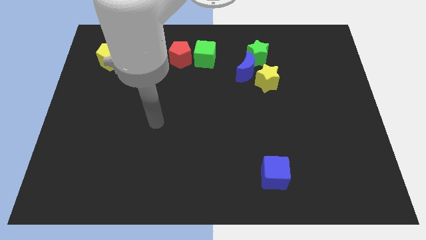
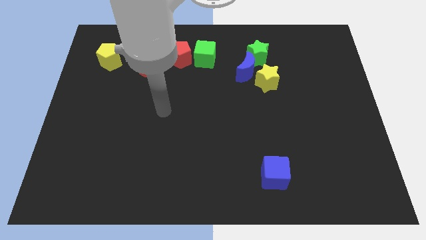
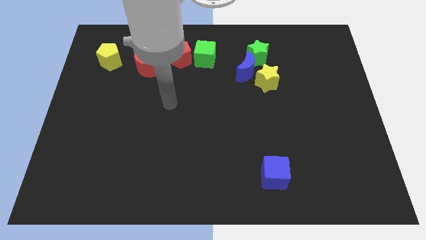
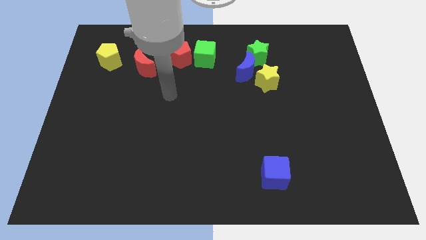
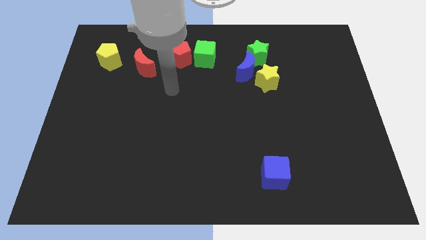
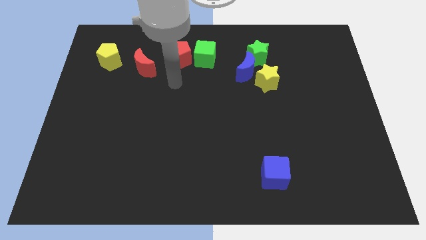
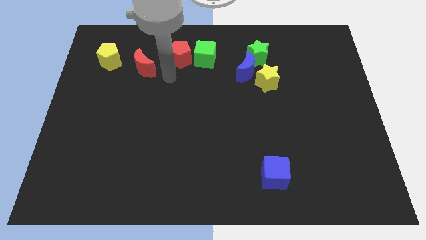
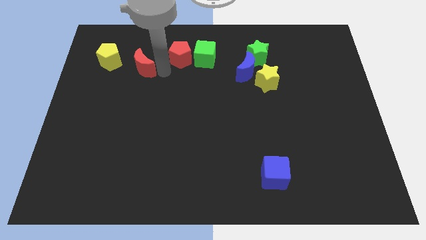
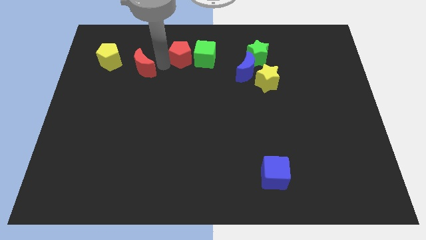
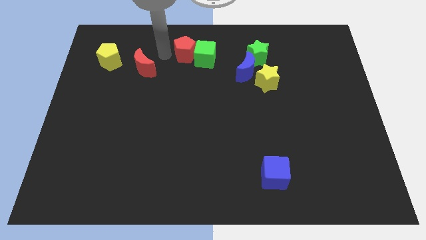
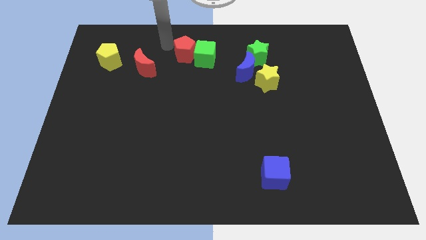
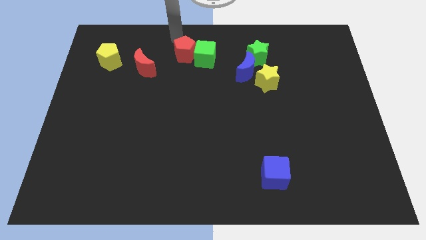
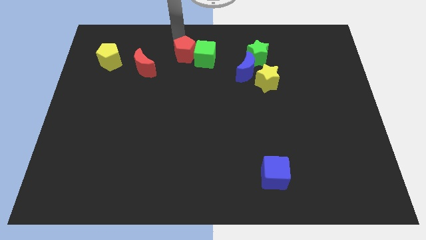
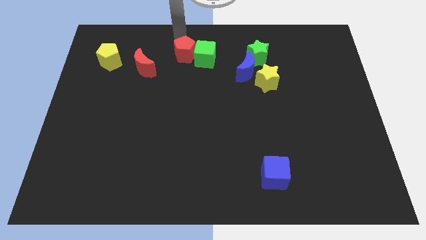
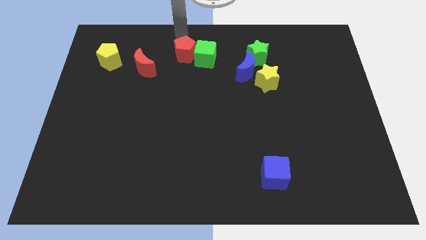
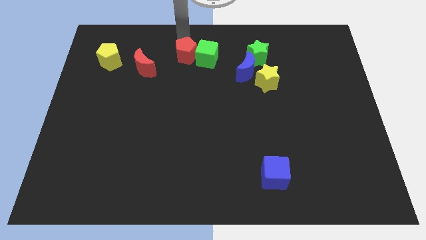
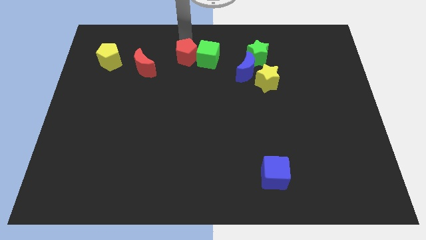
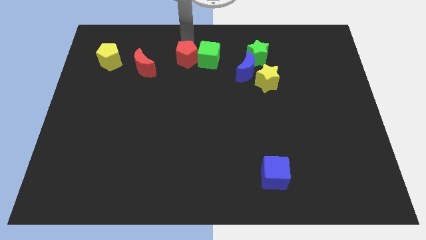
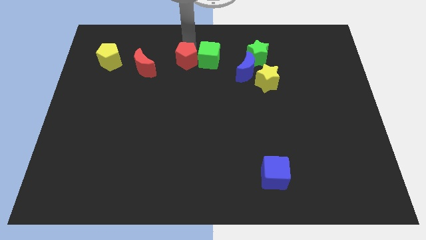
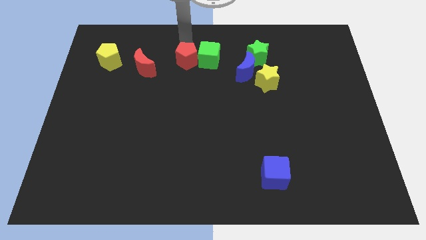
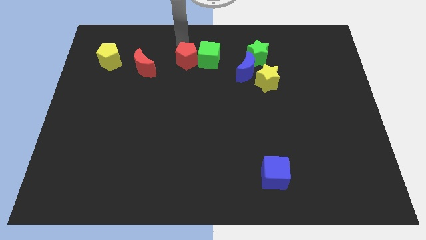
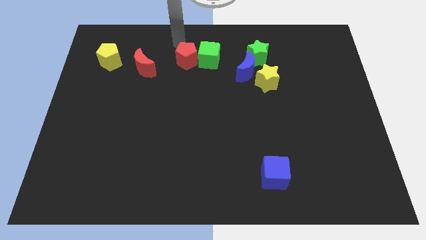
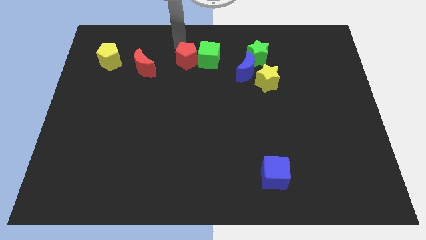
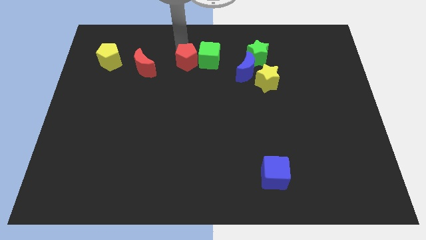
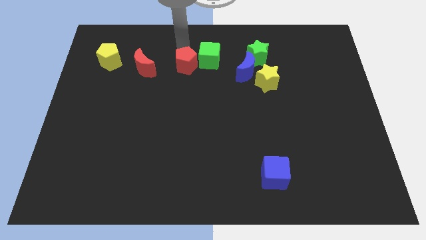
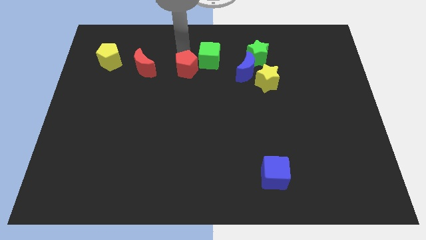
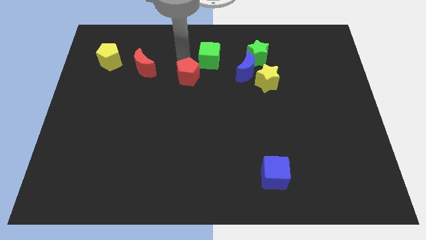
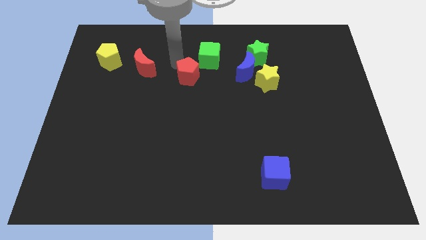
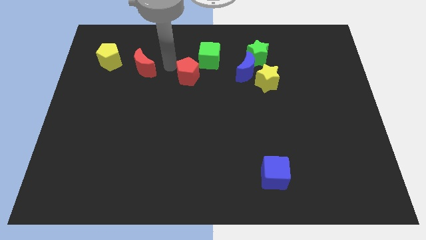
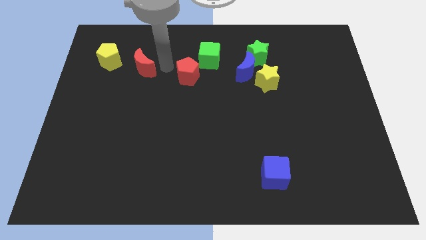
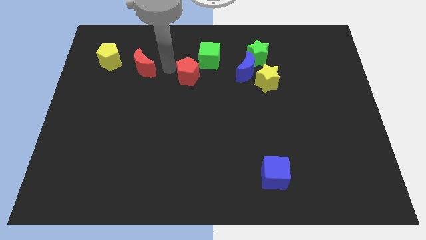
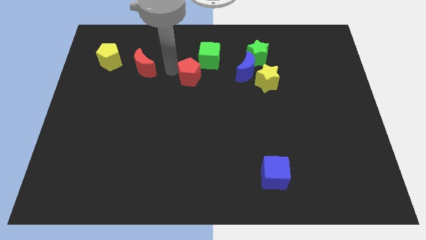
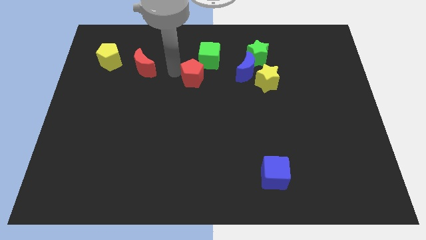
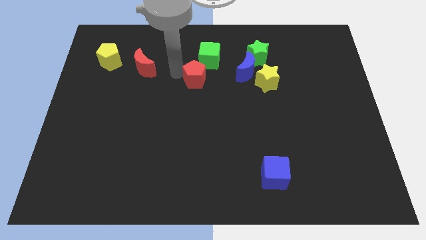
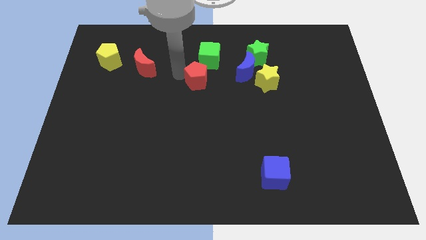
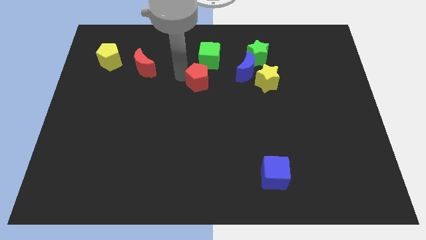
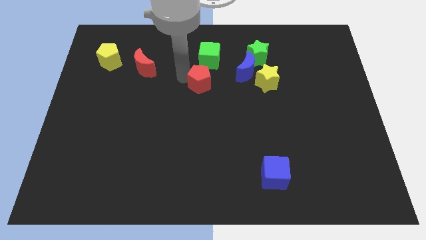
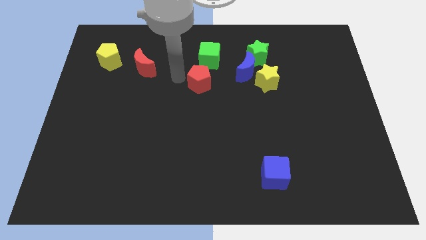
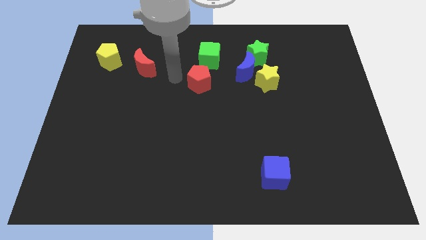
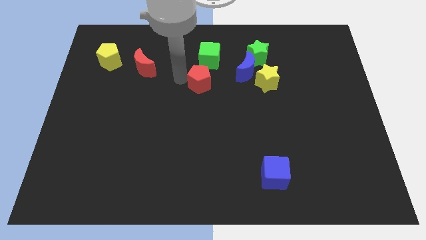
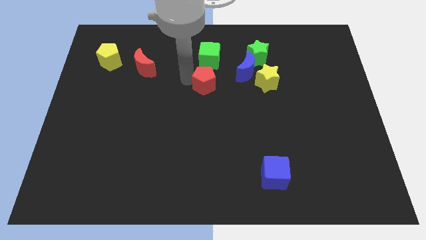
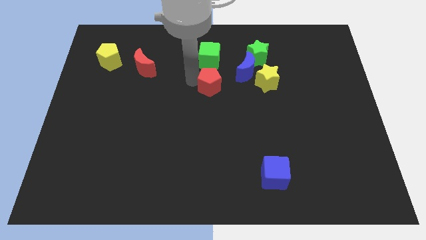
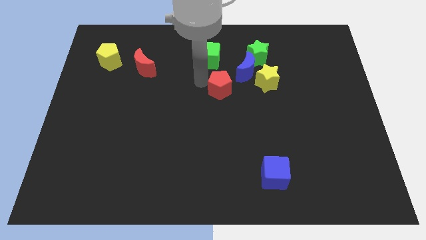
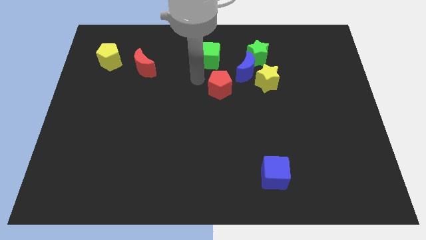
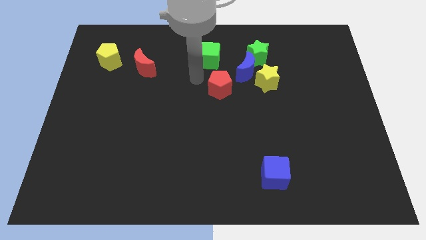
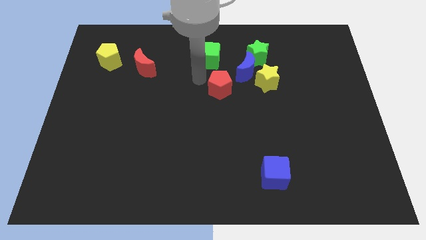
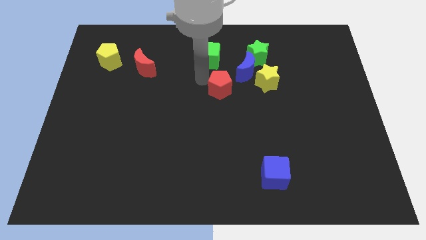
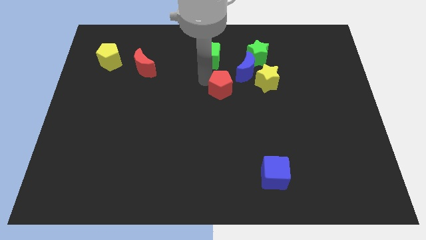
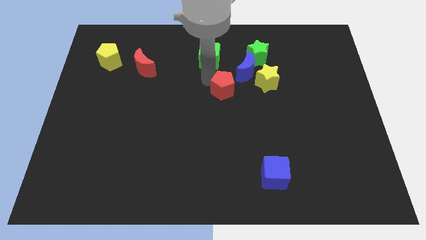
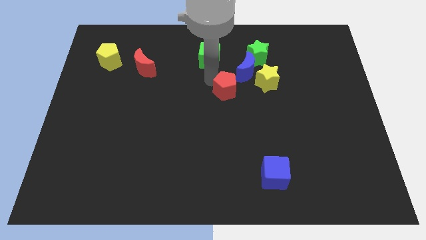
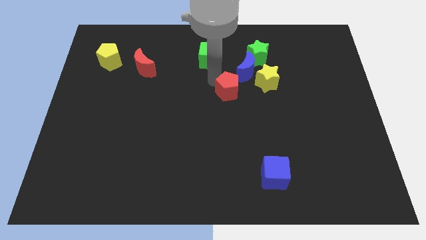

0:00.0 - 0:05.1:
put the red pentagon to the bottom left of the yellow star

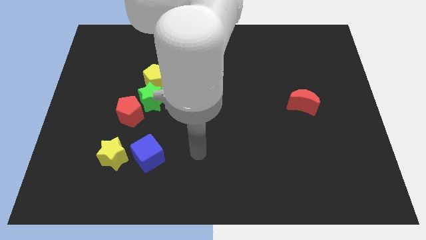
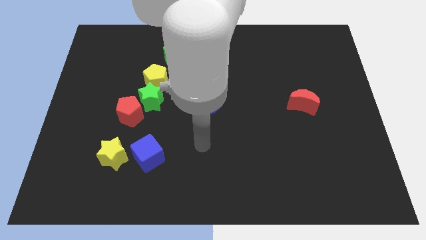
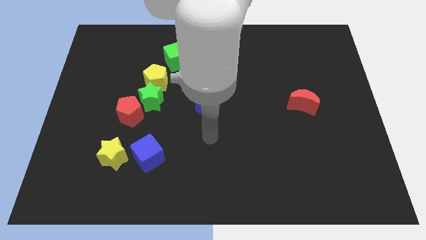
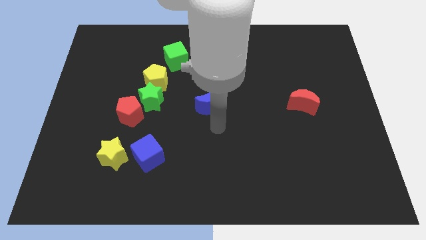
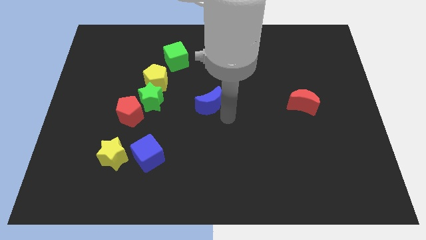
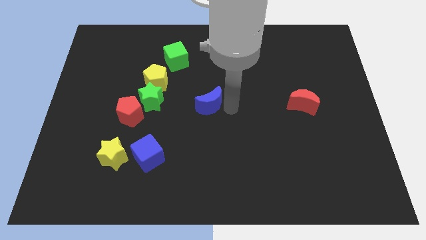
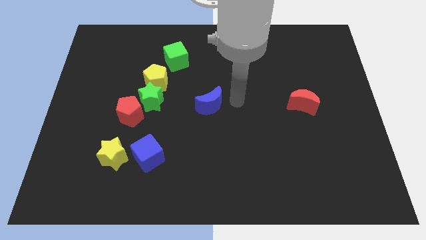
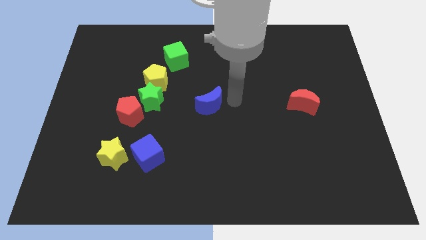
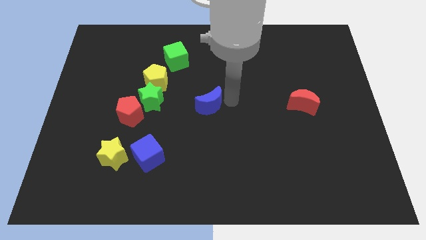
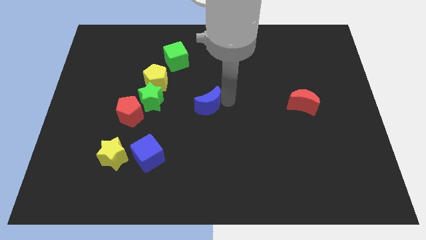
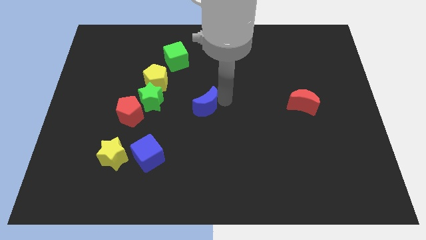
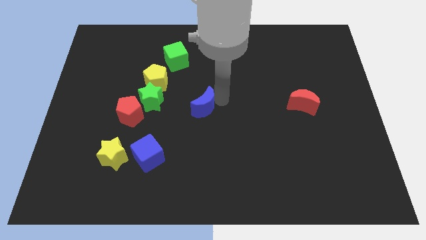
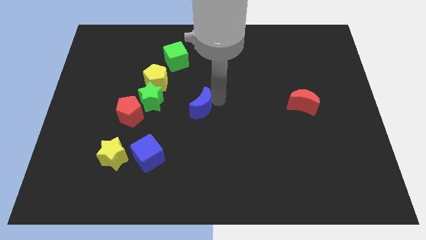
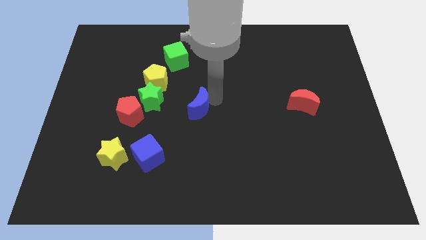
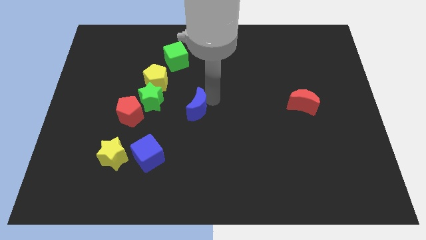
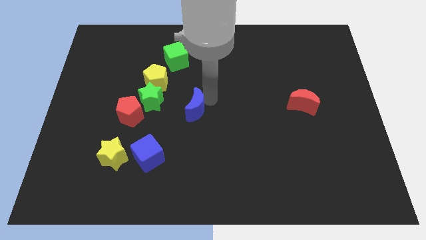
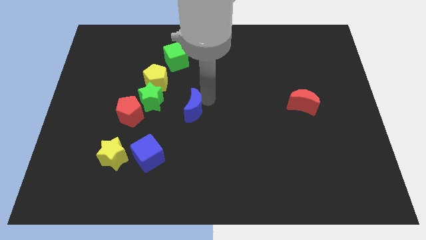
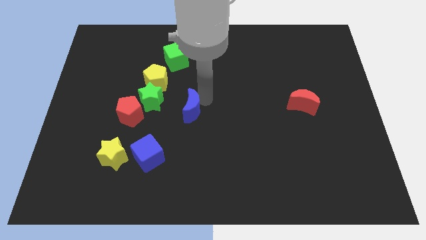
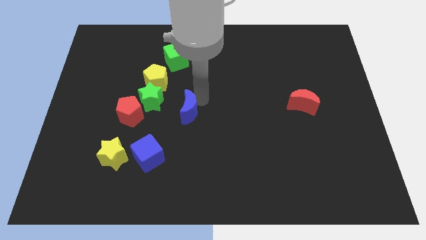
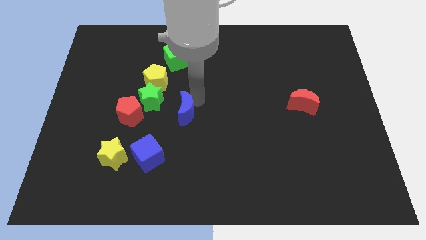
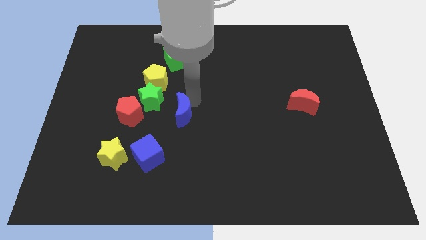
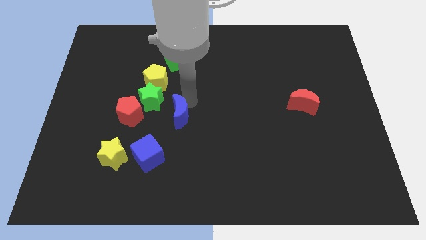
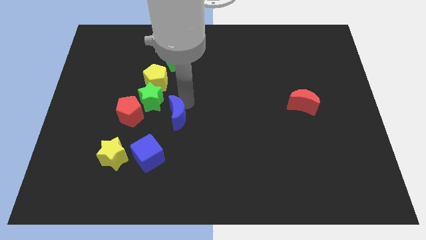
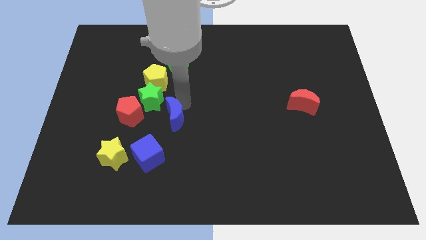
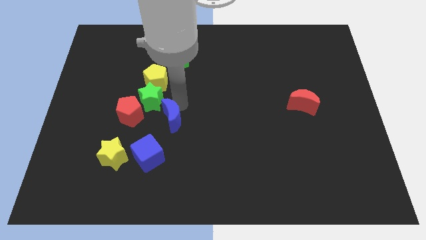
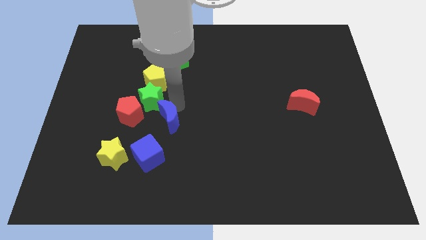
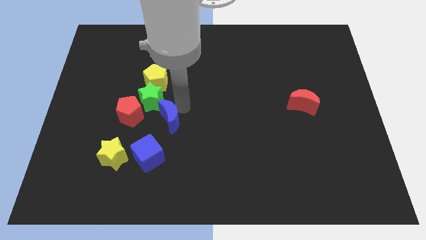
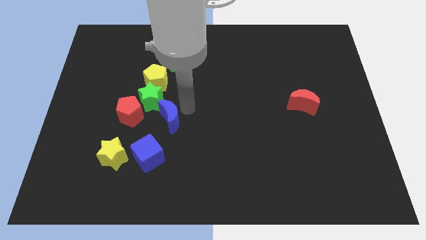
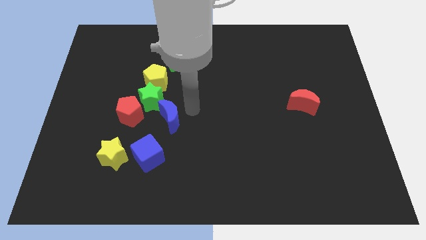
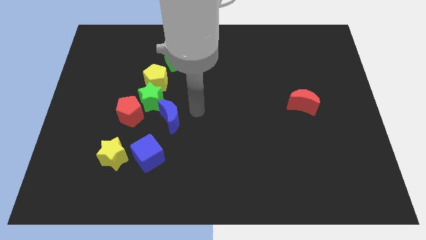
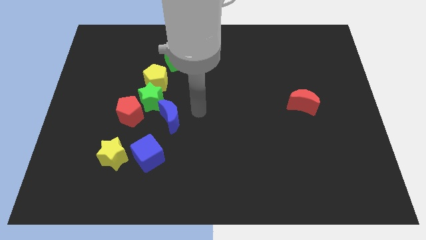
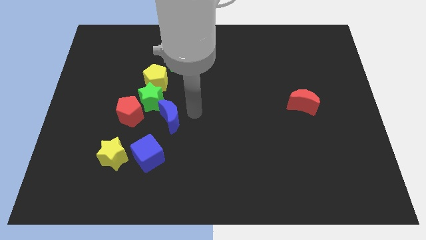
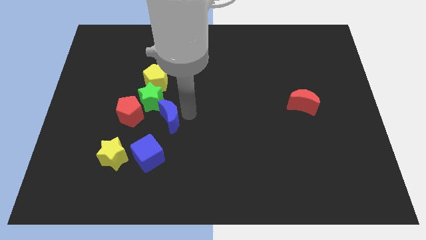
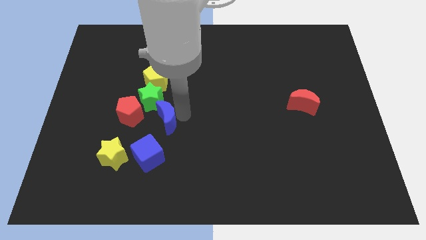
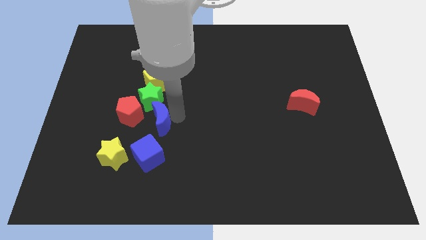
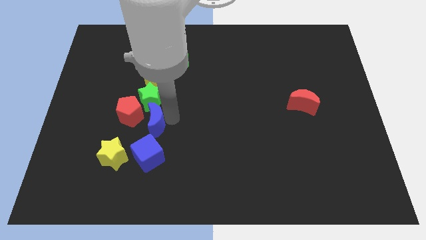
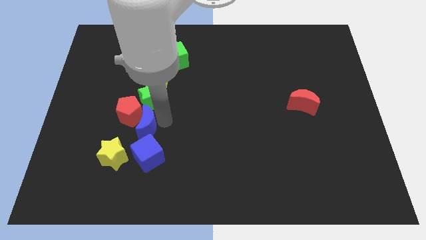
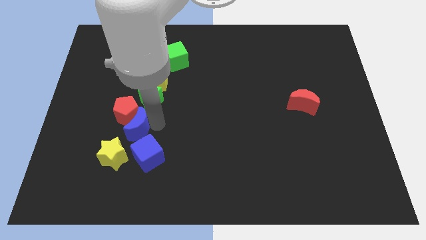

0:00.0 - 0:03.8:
push the blue moon above the yellow star
